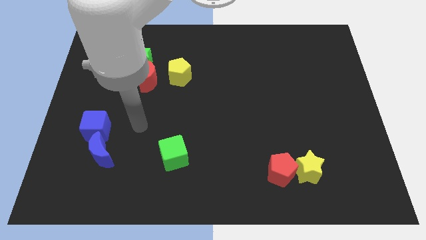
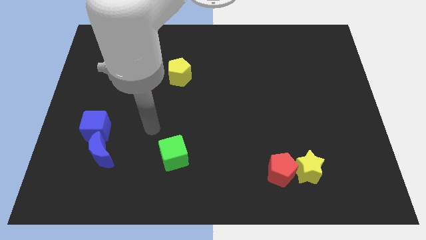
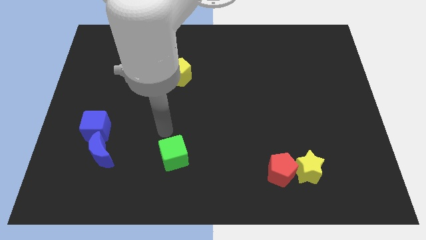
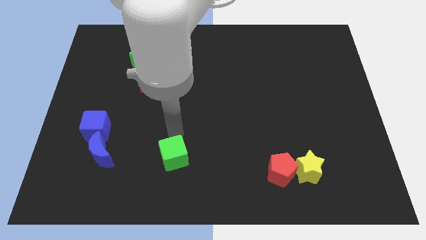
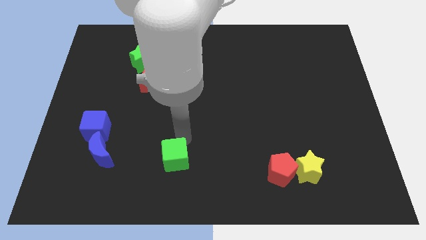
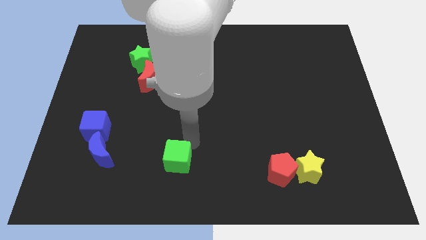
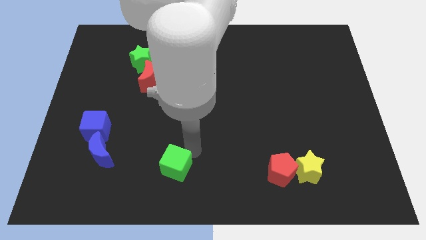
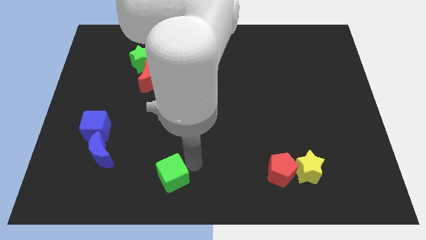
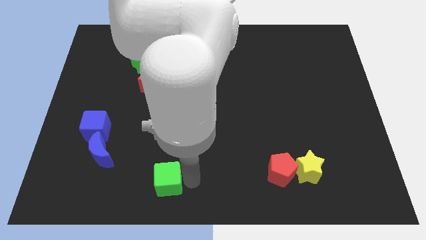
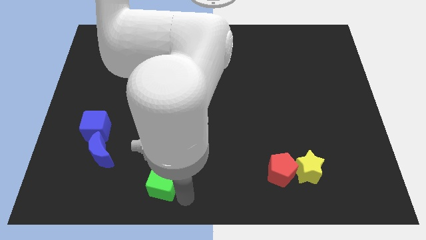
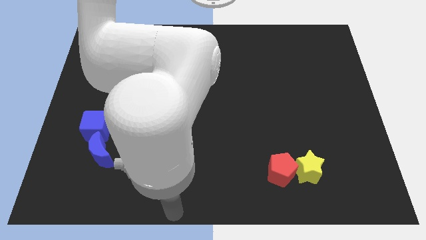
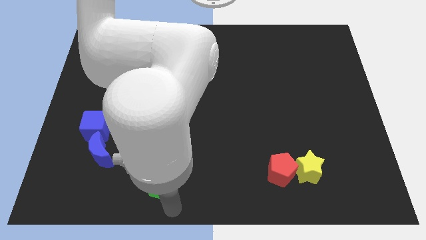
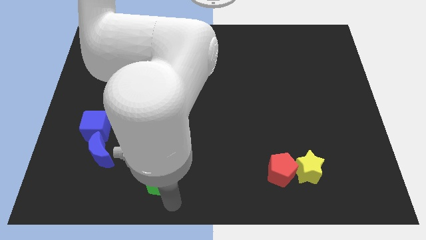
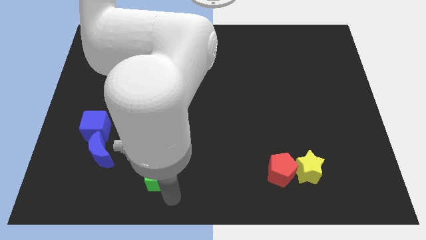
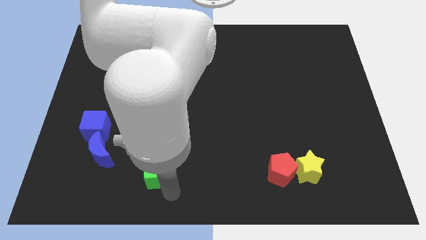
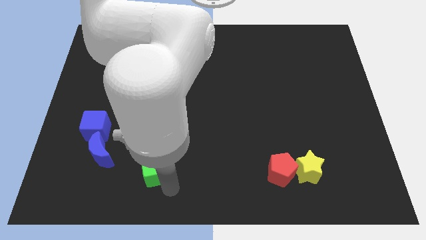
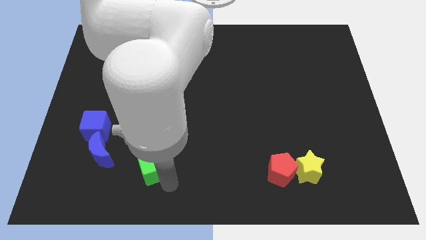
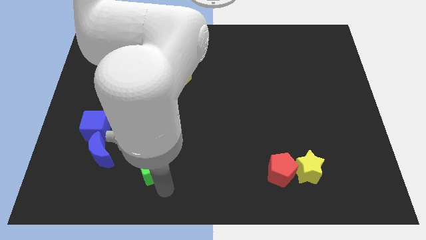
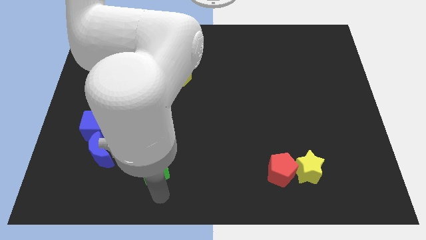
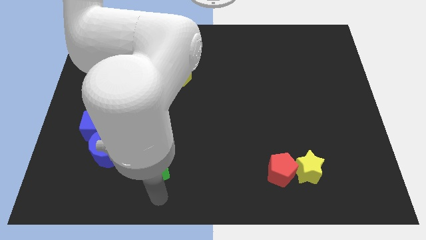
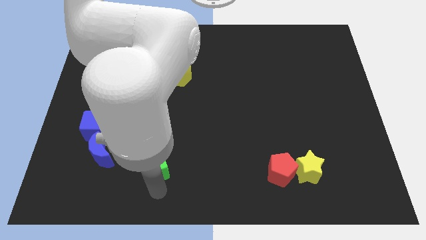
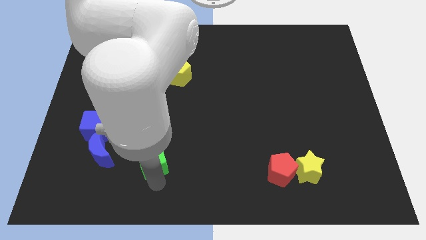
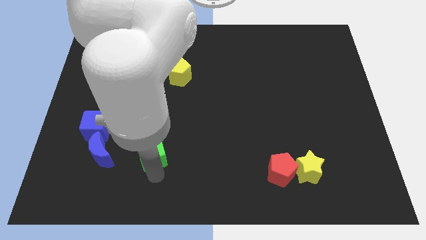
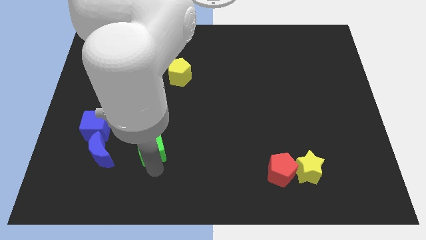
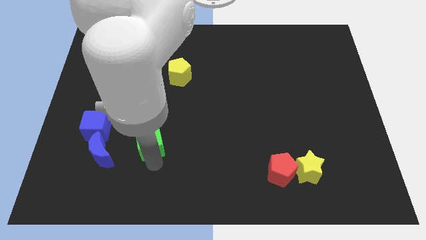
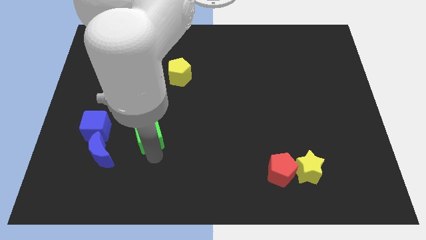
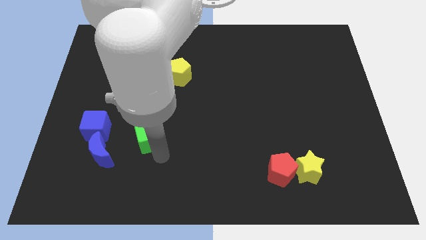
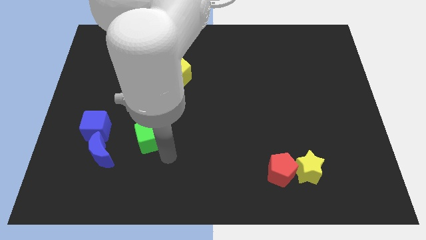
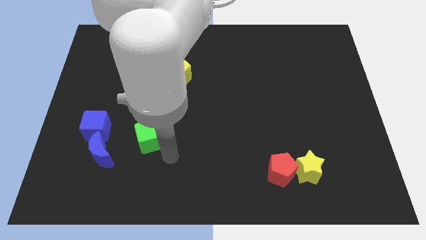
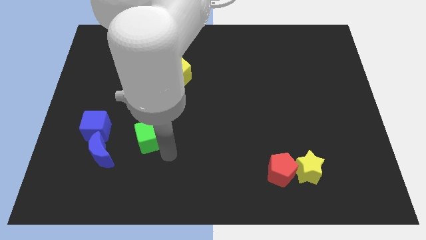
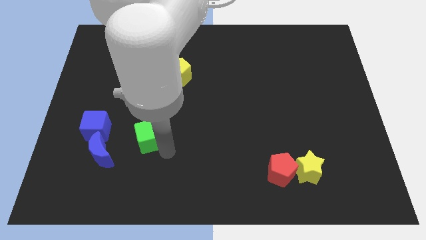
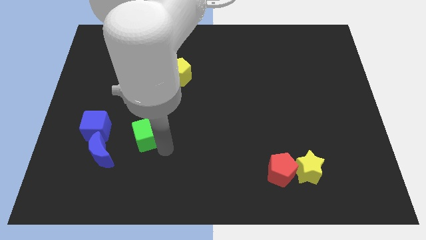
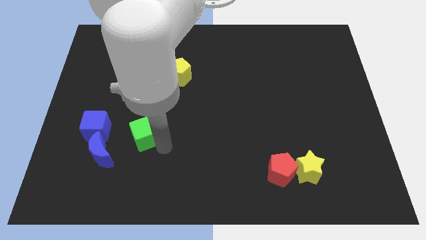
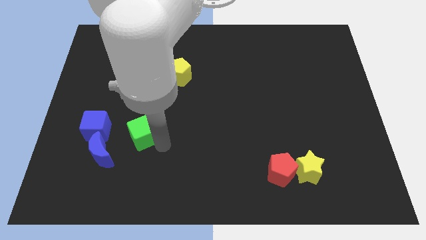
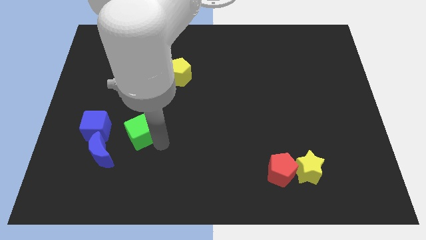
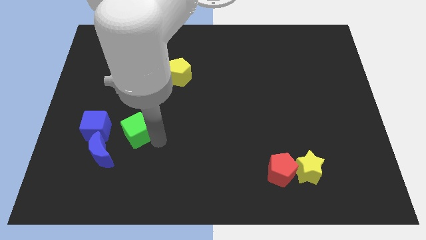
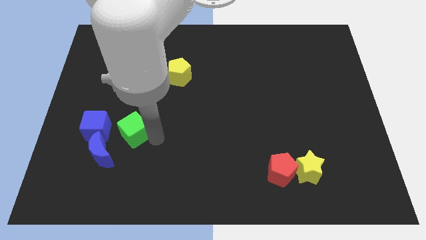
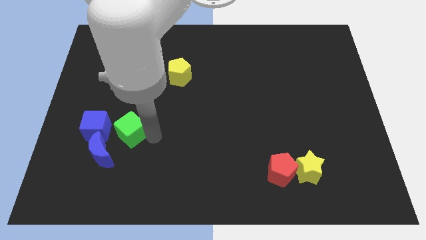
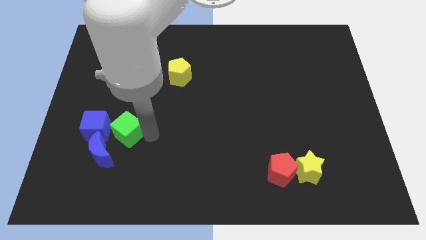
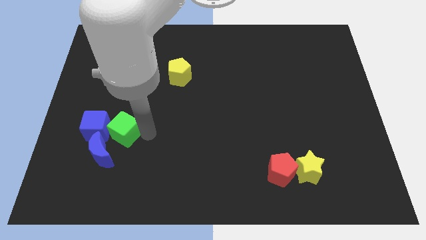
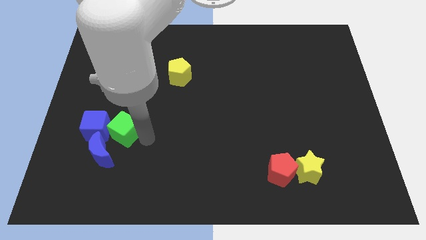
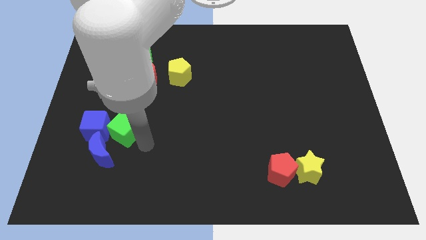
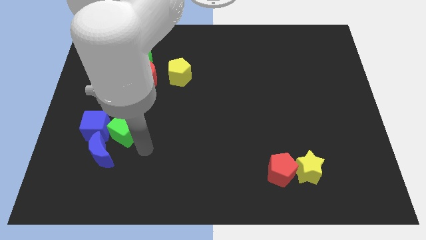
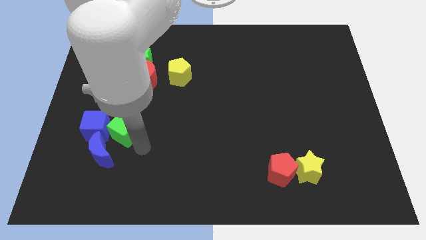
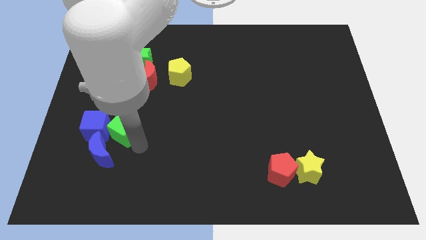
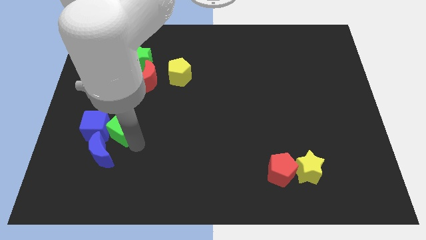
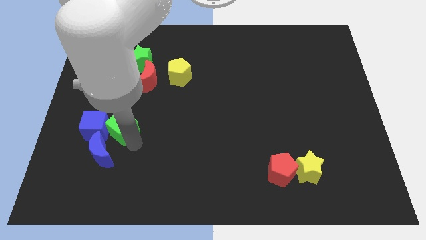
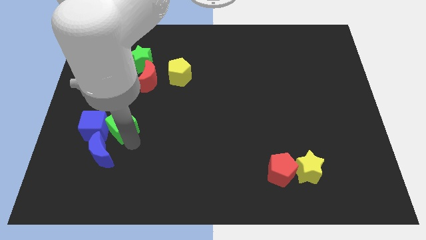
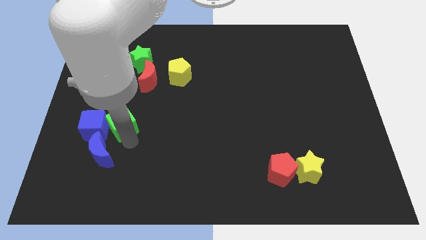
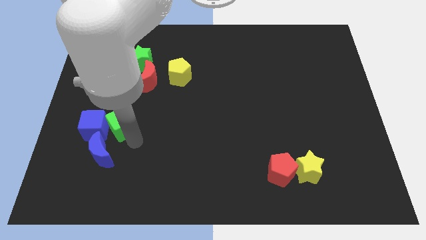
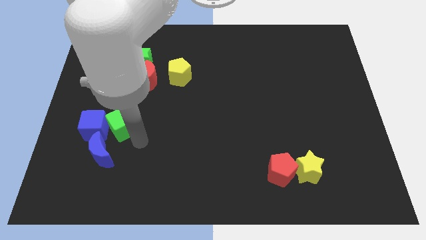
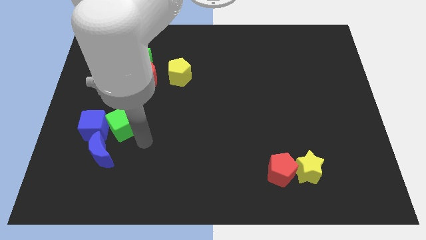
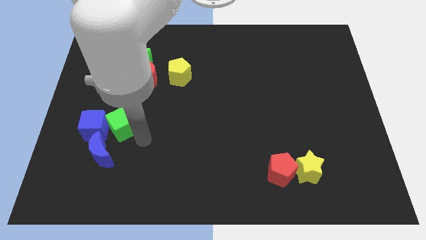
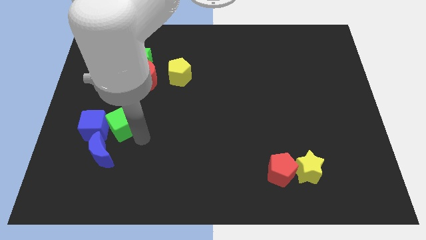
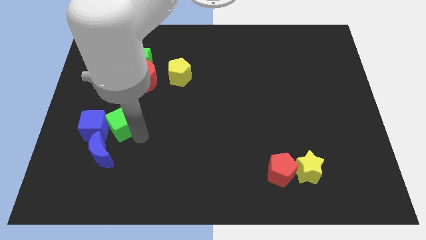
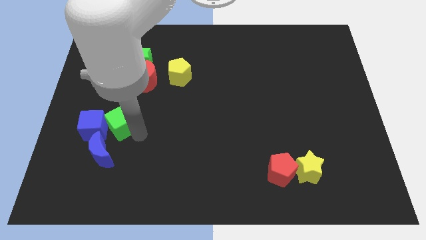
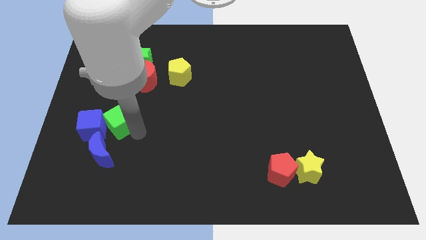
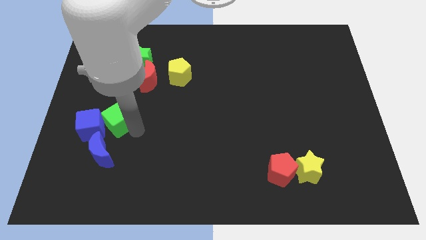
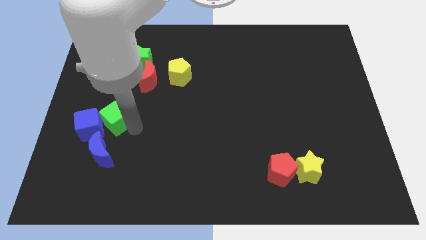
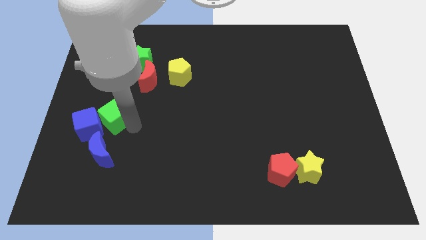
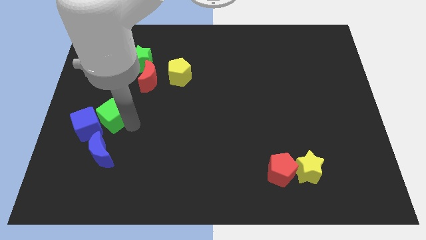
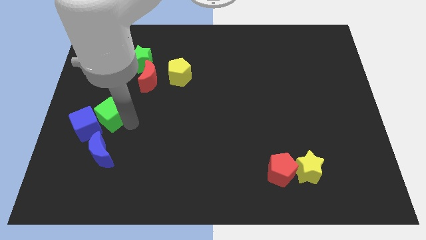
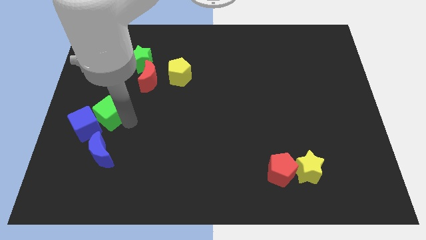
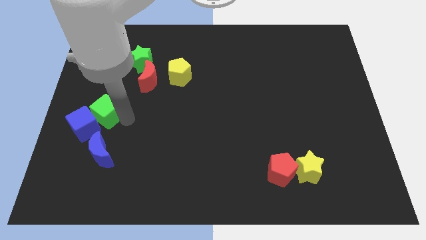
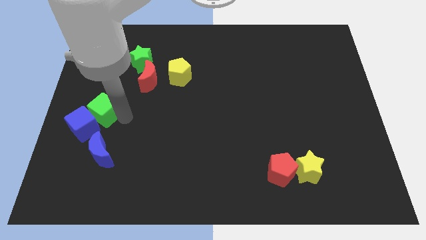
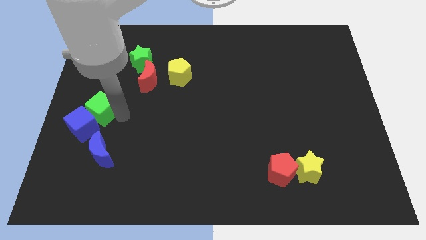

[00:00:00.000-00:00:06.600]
move the green cube to the left side of the board
